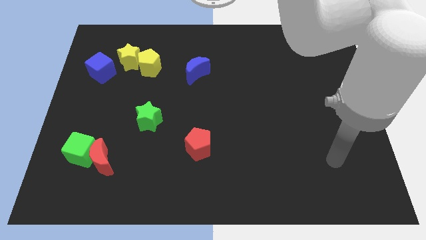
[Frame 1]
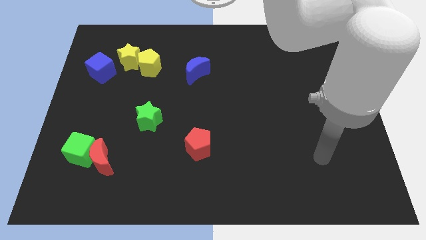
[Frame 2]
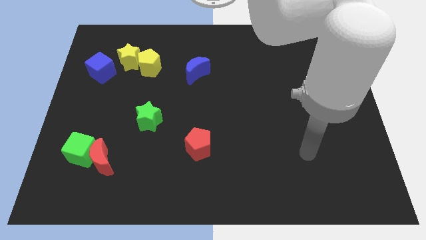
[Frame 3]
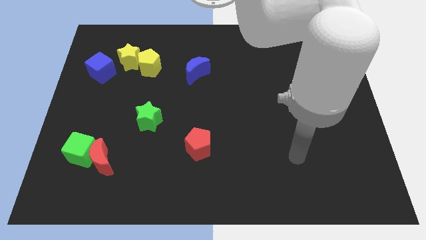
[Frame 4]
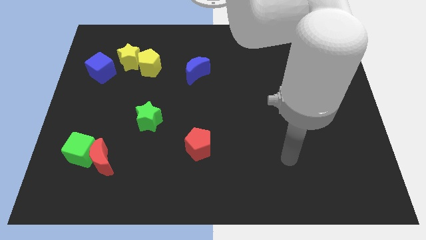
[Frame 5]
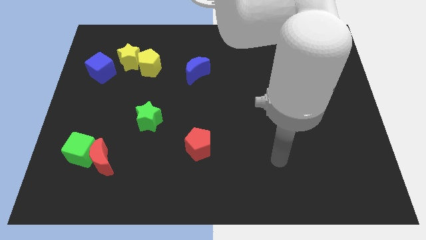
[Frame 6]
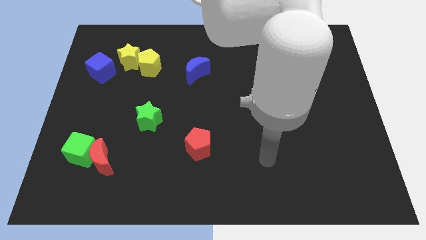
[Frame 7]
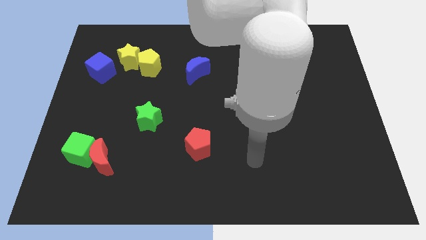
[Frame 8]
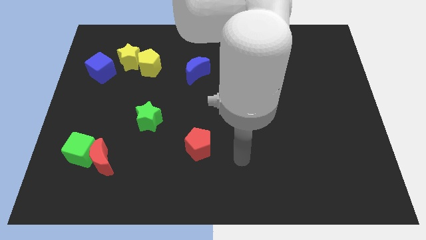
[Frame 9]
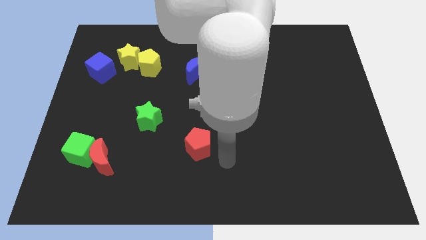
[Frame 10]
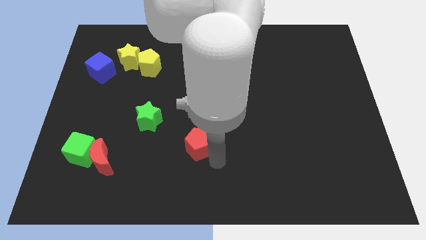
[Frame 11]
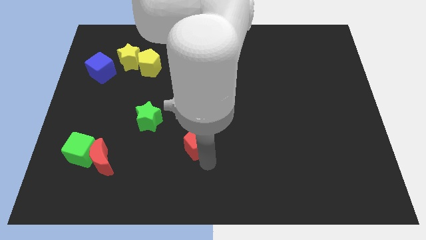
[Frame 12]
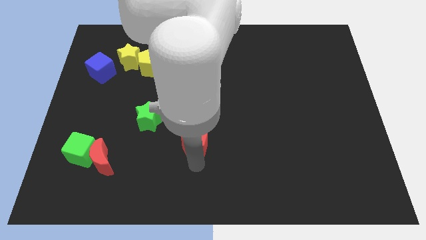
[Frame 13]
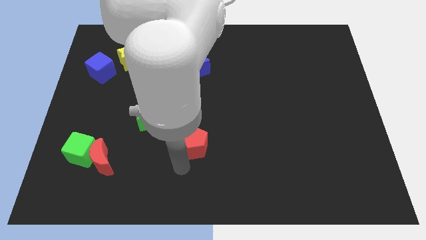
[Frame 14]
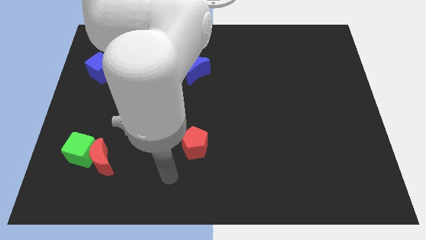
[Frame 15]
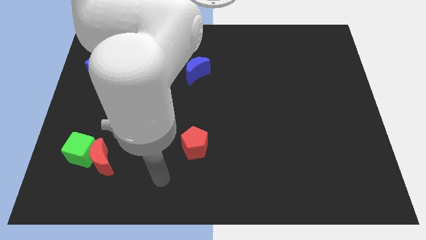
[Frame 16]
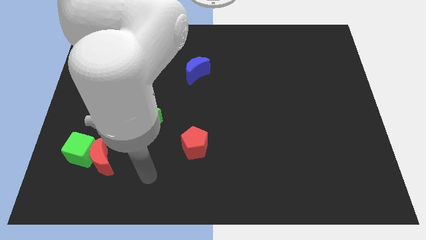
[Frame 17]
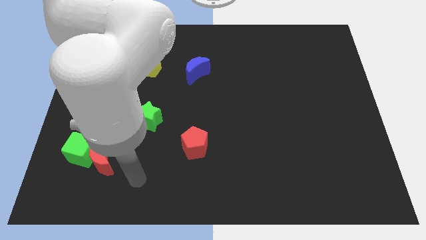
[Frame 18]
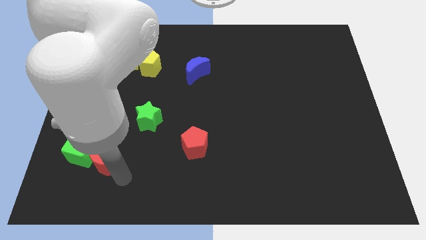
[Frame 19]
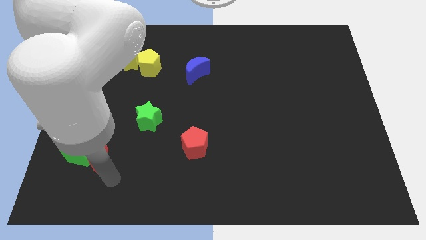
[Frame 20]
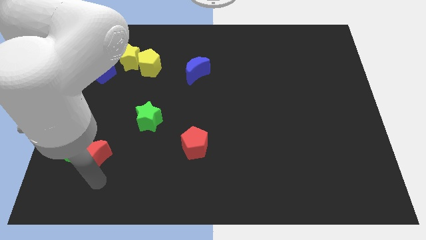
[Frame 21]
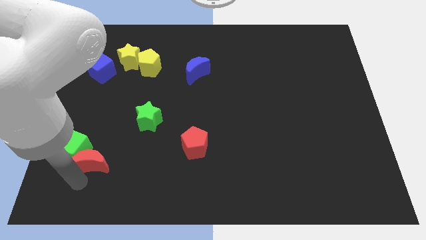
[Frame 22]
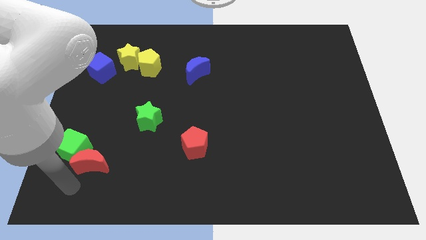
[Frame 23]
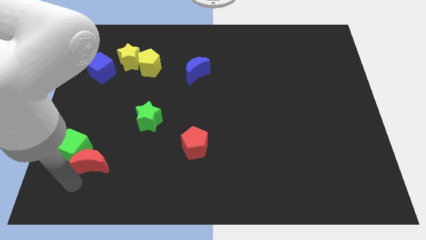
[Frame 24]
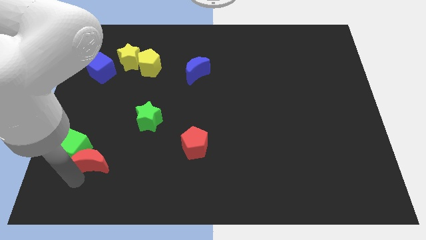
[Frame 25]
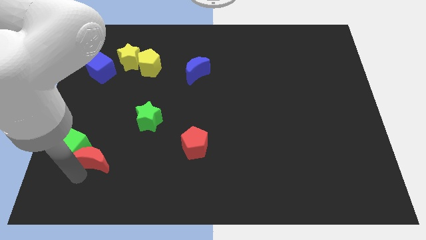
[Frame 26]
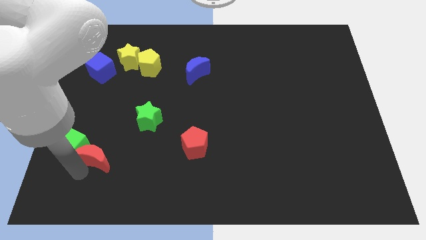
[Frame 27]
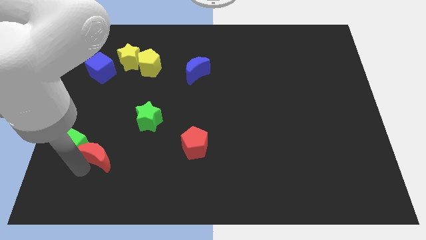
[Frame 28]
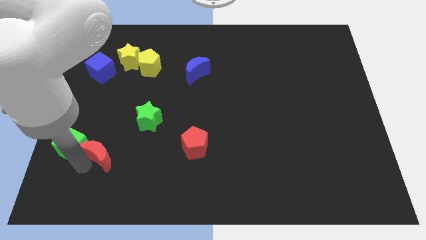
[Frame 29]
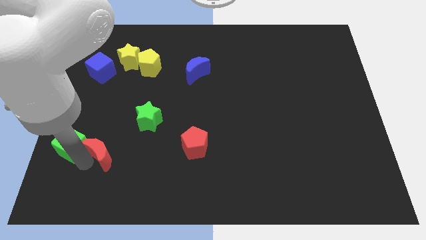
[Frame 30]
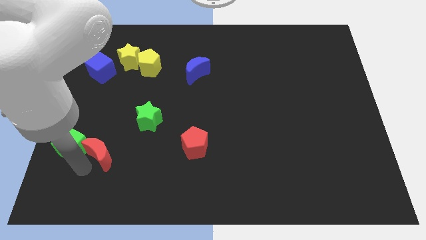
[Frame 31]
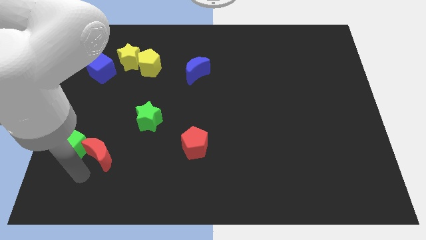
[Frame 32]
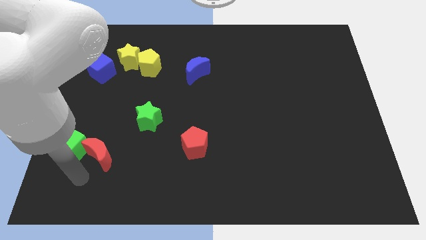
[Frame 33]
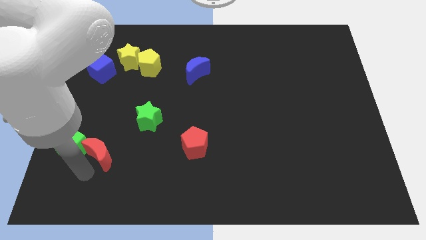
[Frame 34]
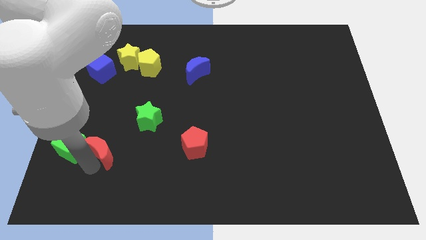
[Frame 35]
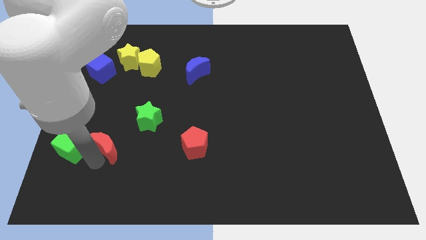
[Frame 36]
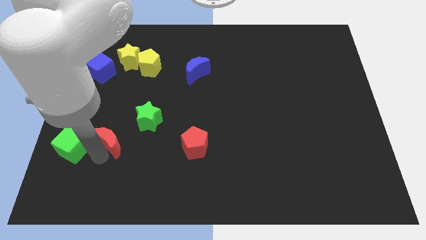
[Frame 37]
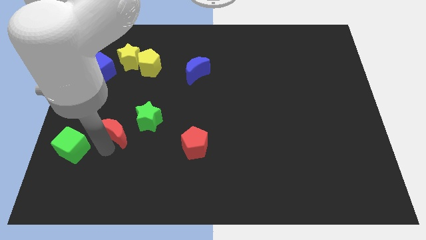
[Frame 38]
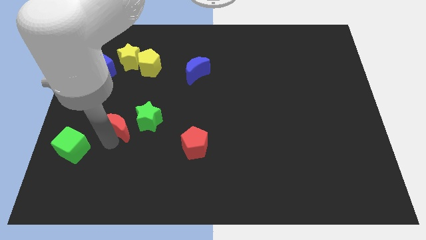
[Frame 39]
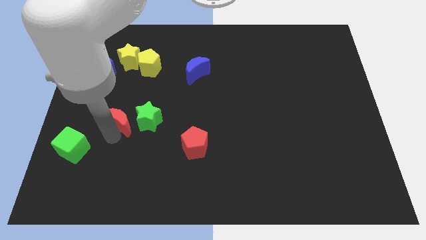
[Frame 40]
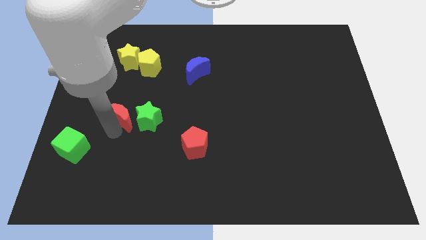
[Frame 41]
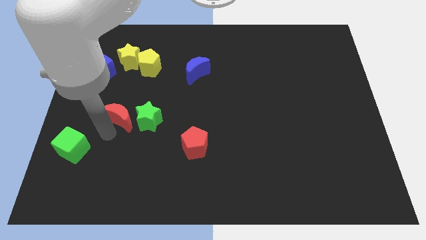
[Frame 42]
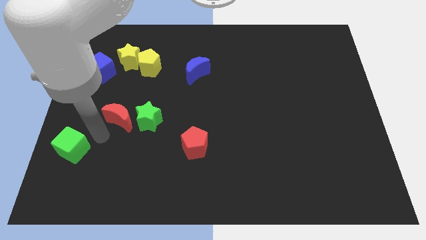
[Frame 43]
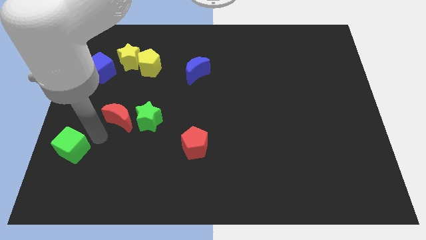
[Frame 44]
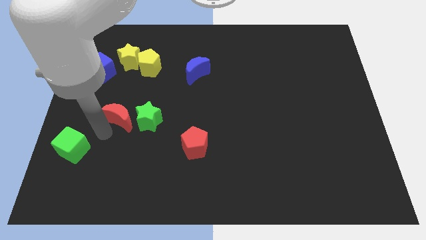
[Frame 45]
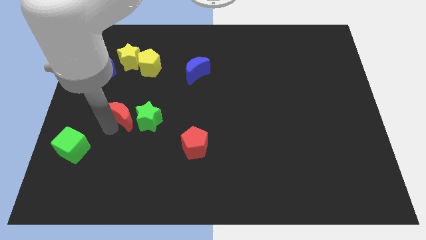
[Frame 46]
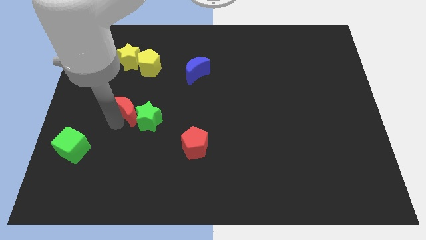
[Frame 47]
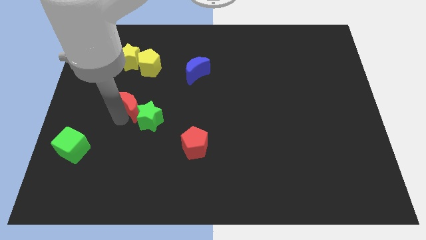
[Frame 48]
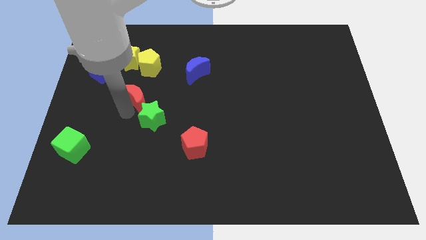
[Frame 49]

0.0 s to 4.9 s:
push the red moon to the top of the green star

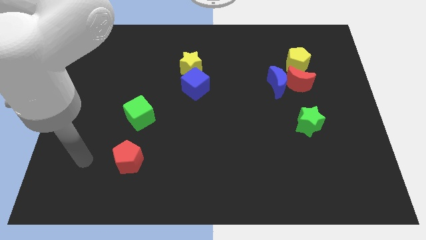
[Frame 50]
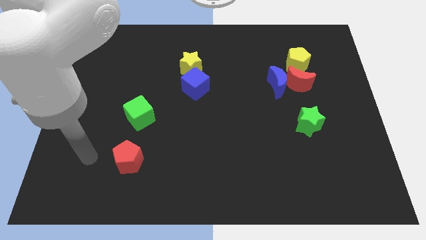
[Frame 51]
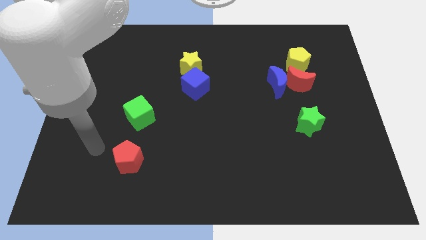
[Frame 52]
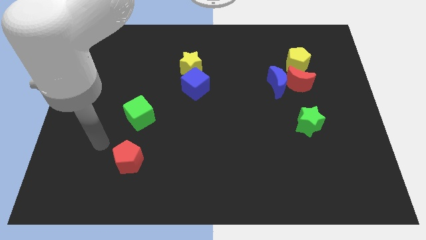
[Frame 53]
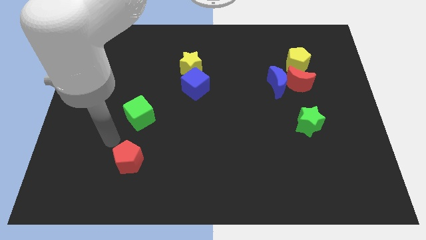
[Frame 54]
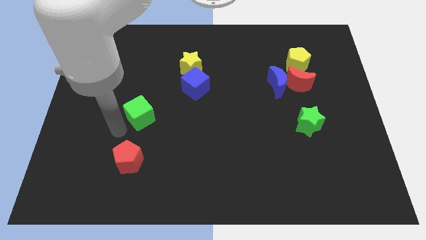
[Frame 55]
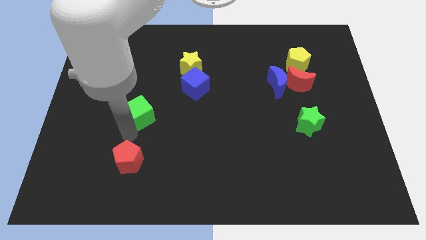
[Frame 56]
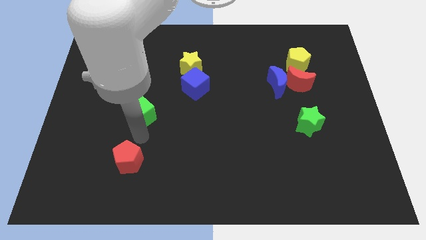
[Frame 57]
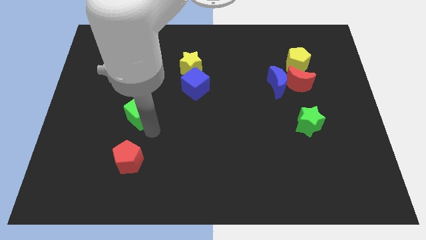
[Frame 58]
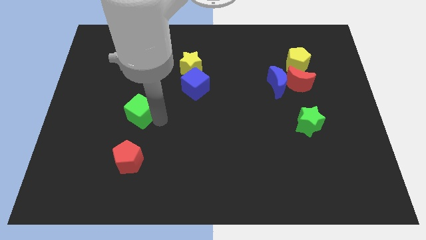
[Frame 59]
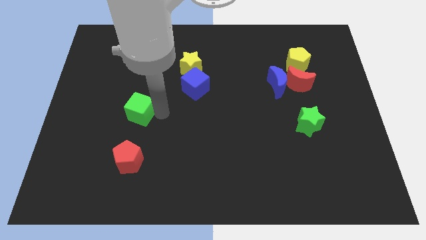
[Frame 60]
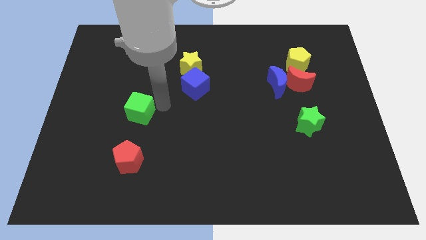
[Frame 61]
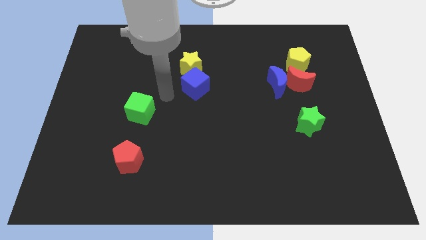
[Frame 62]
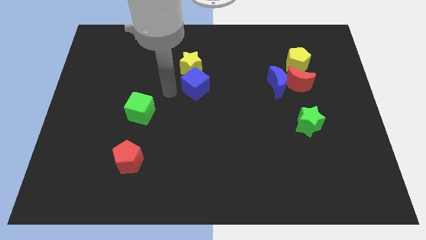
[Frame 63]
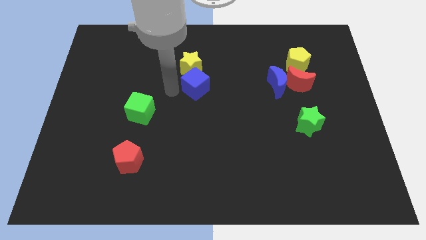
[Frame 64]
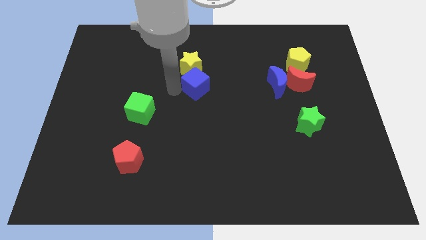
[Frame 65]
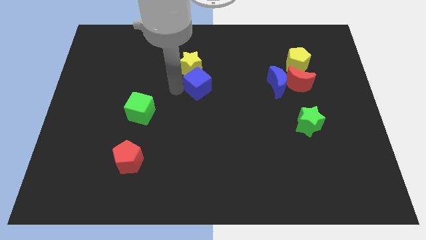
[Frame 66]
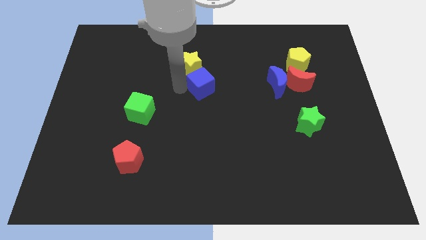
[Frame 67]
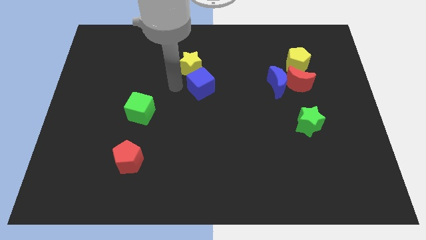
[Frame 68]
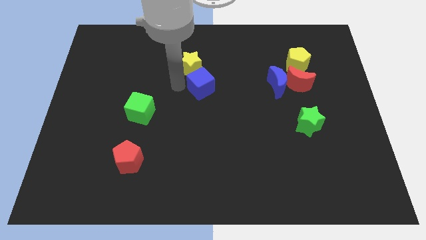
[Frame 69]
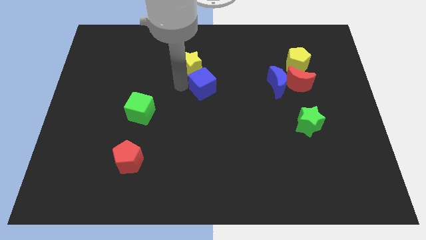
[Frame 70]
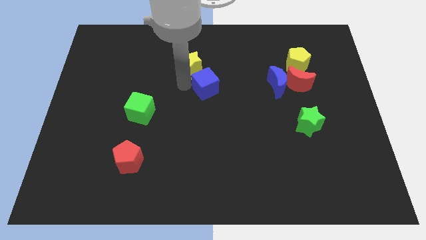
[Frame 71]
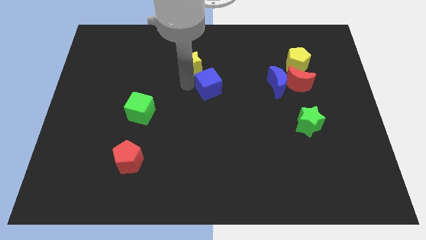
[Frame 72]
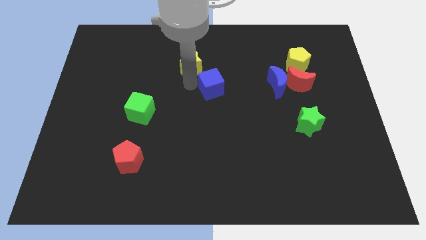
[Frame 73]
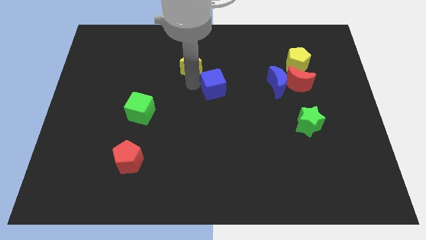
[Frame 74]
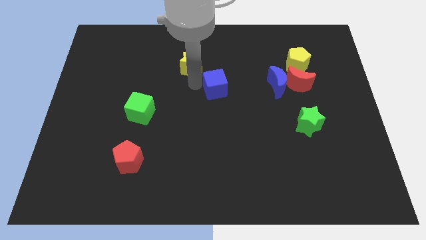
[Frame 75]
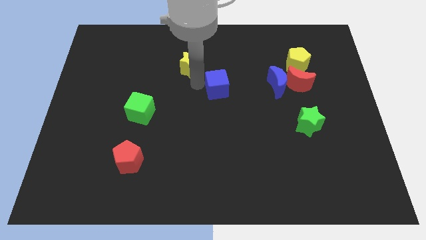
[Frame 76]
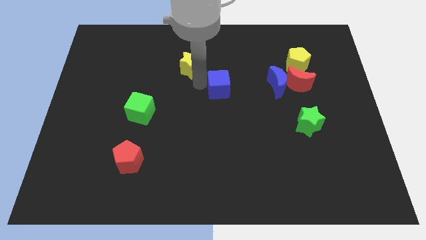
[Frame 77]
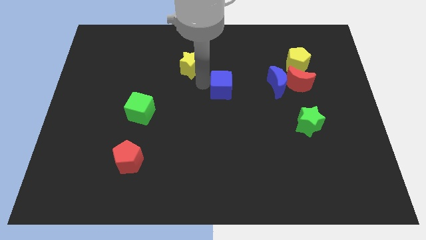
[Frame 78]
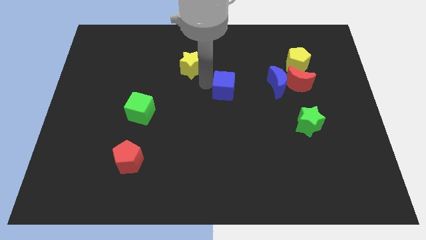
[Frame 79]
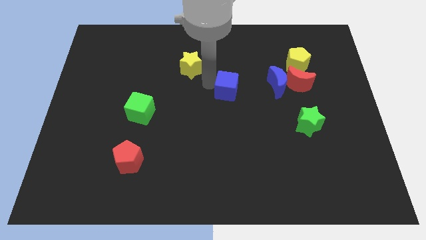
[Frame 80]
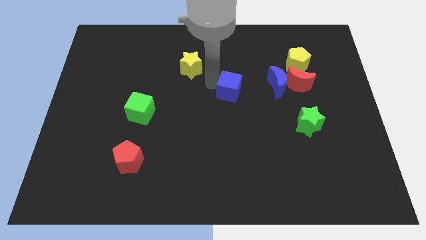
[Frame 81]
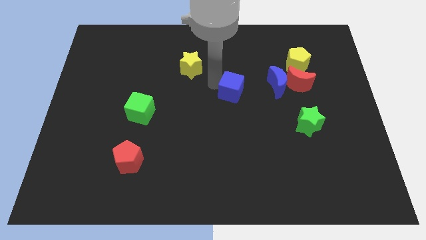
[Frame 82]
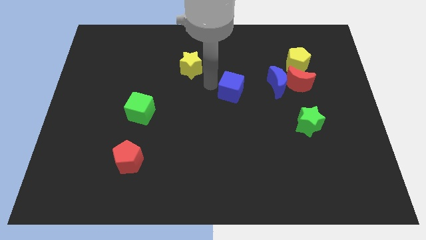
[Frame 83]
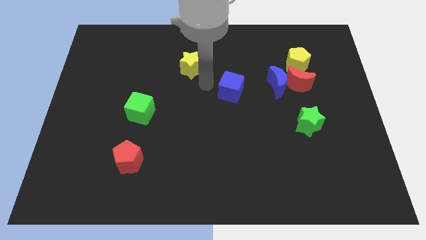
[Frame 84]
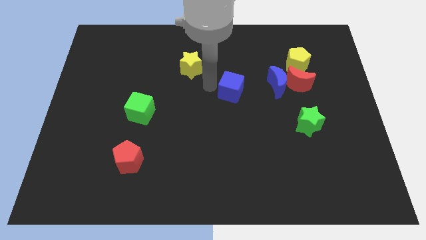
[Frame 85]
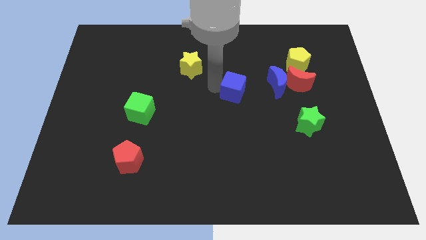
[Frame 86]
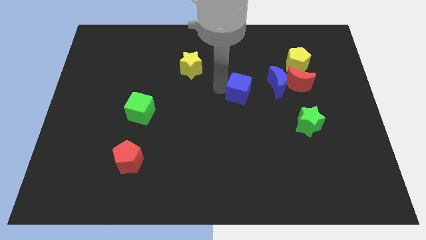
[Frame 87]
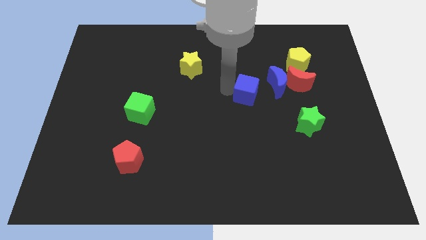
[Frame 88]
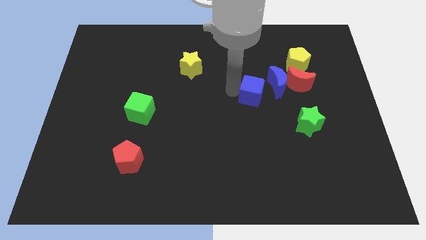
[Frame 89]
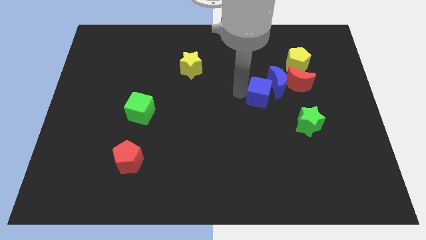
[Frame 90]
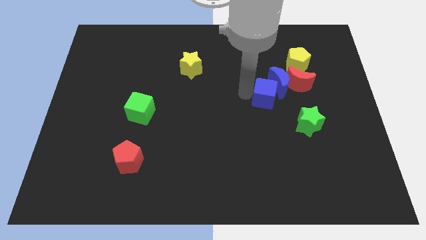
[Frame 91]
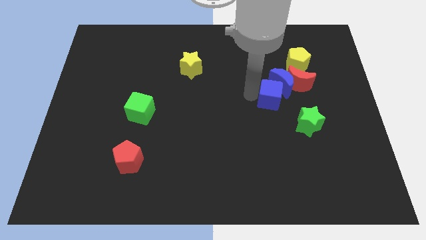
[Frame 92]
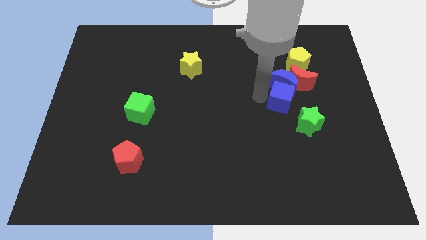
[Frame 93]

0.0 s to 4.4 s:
push the blue cube diagonally down and to the right of the blue moon
